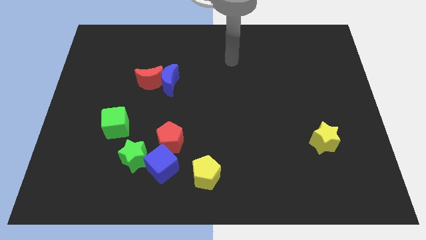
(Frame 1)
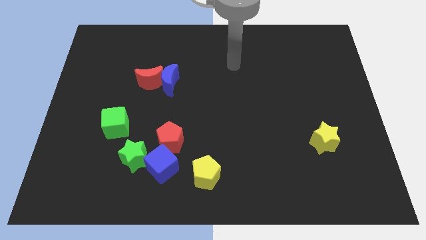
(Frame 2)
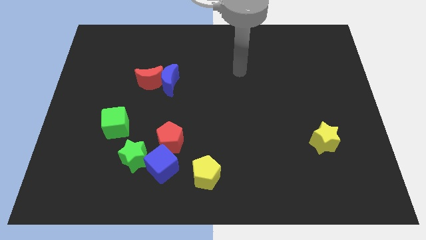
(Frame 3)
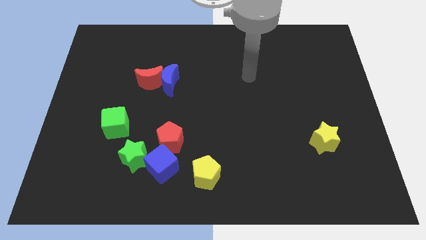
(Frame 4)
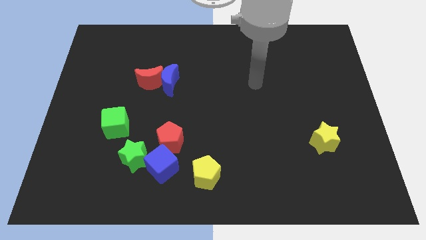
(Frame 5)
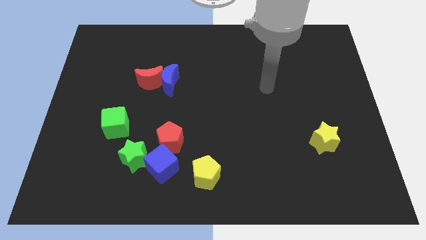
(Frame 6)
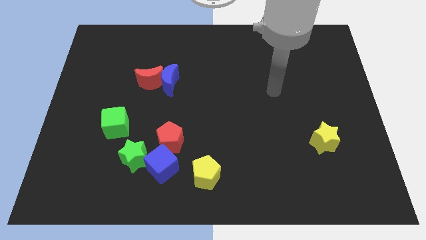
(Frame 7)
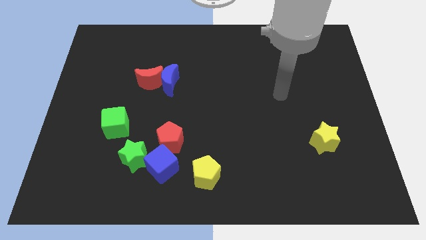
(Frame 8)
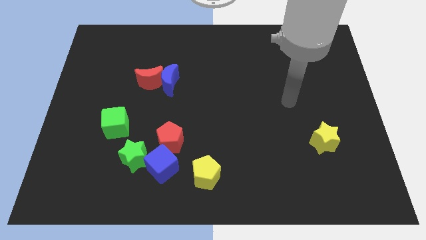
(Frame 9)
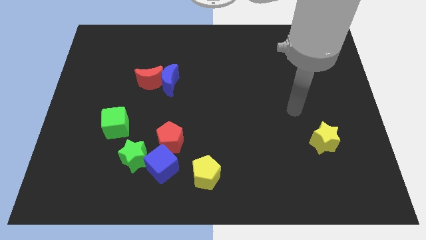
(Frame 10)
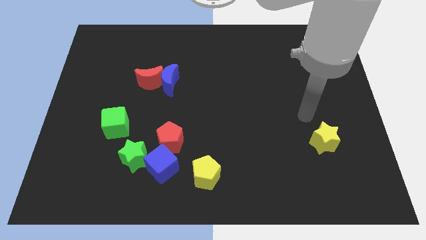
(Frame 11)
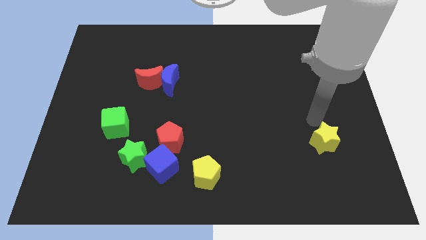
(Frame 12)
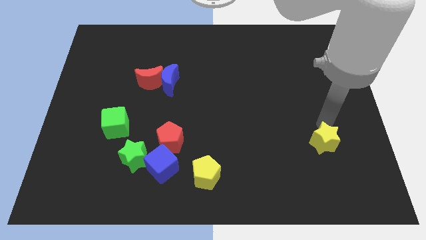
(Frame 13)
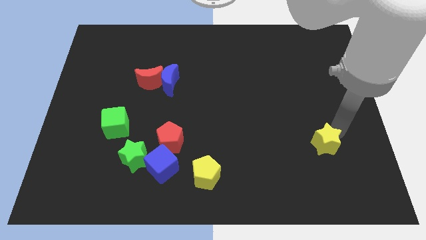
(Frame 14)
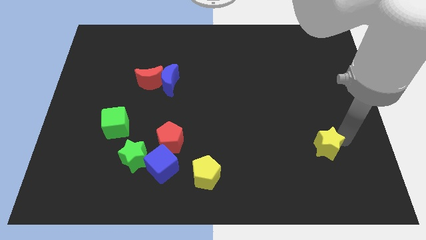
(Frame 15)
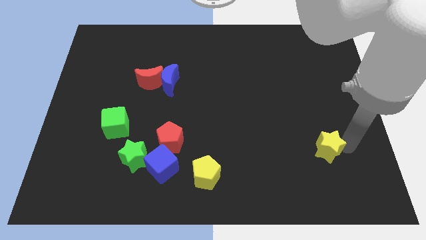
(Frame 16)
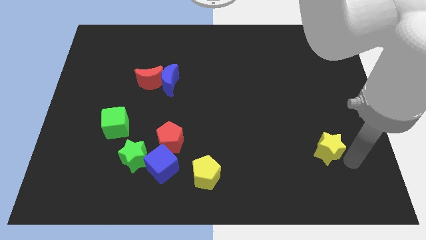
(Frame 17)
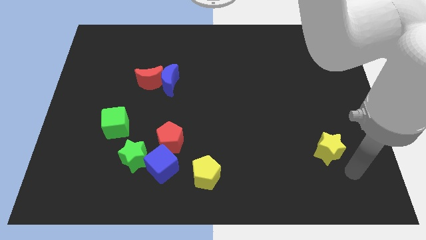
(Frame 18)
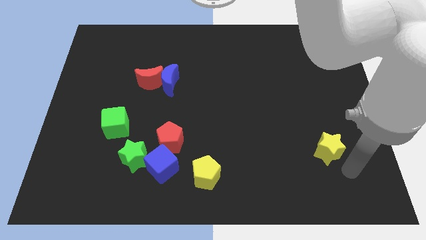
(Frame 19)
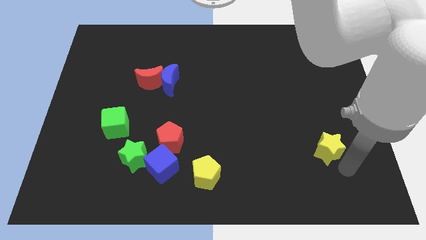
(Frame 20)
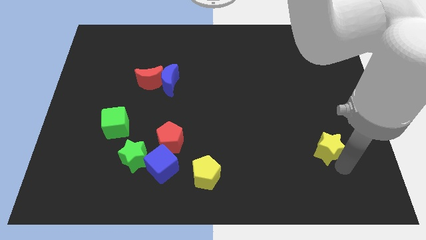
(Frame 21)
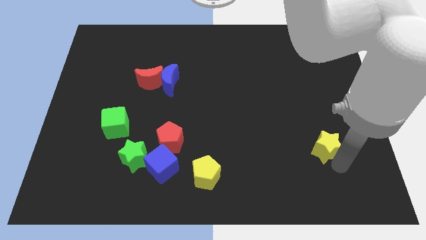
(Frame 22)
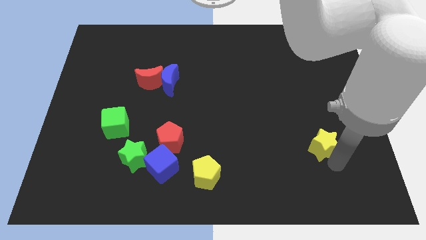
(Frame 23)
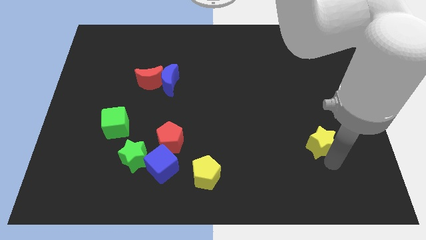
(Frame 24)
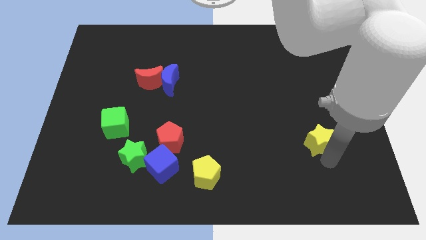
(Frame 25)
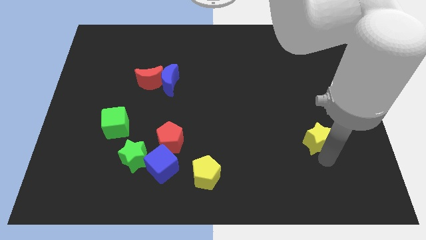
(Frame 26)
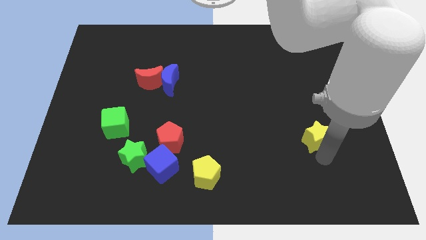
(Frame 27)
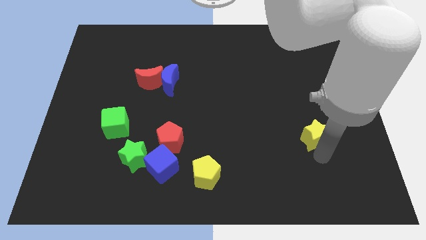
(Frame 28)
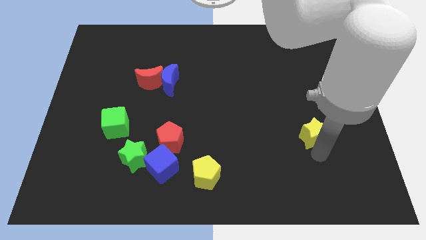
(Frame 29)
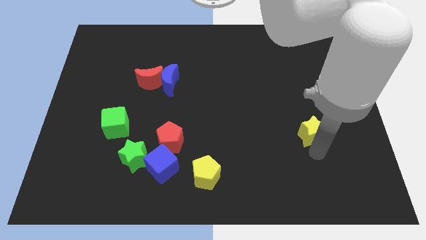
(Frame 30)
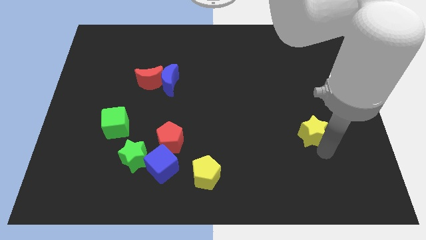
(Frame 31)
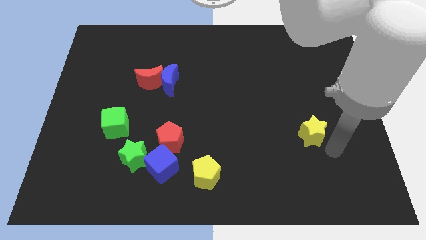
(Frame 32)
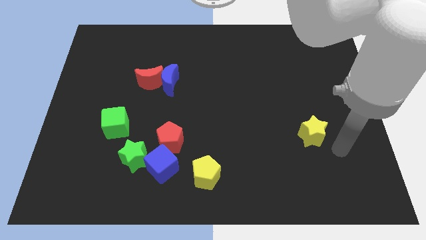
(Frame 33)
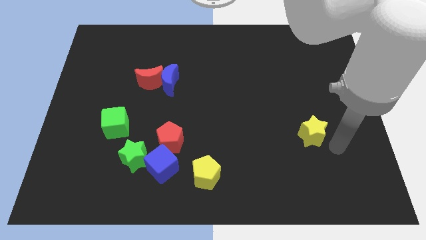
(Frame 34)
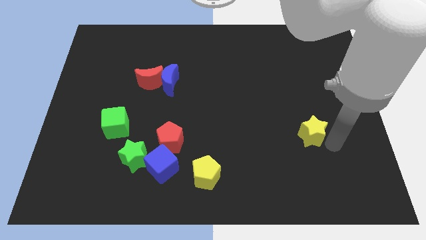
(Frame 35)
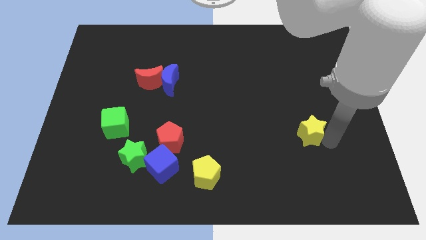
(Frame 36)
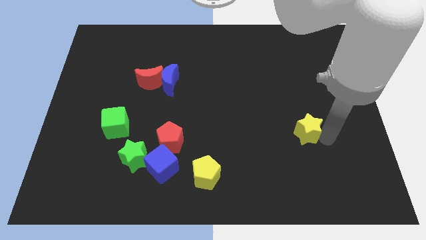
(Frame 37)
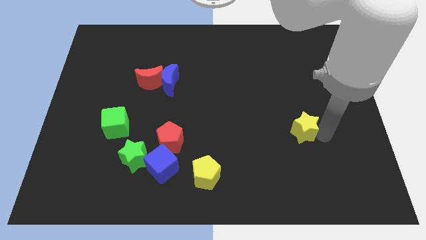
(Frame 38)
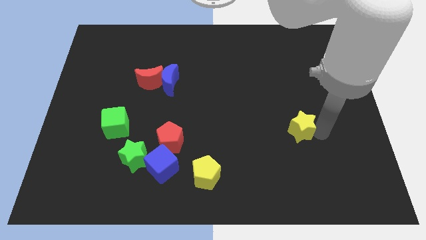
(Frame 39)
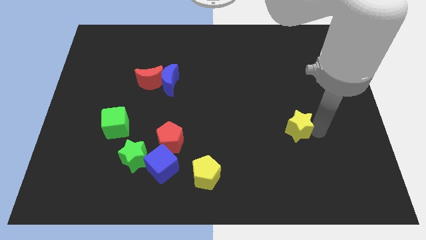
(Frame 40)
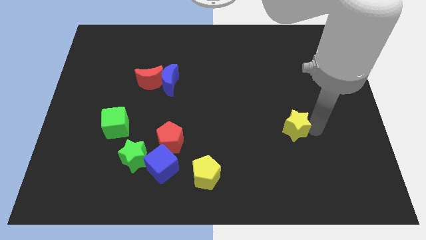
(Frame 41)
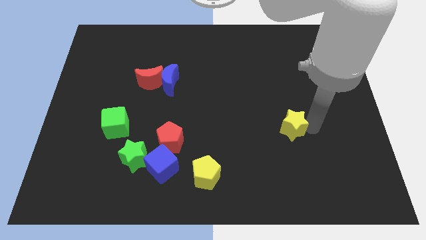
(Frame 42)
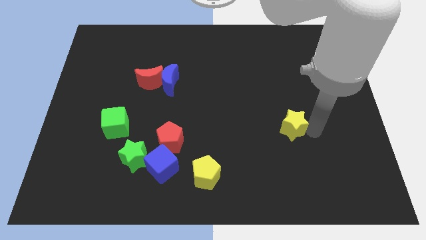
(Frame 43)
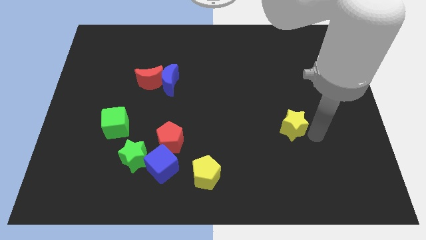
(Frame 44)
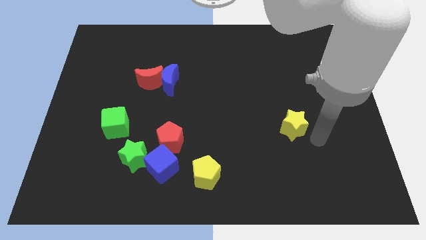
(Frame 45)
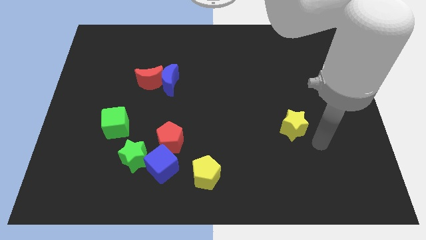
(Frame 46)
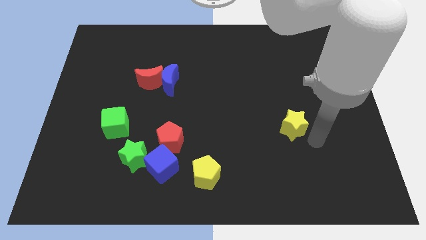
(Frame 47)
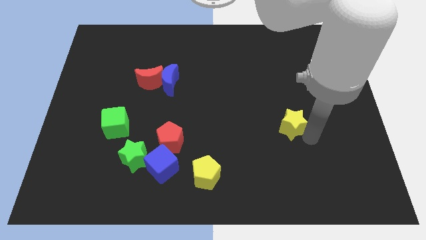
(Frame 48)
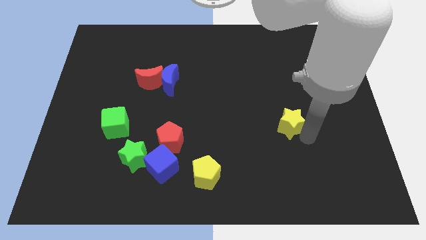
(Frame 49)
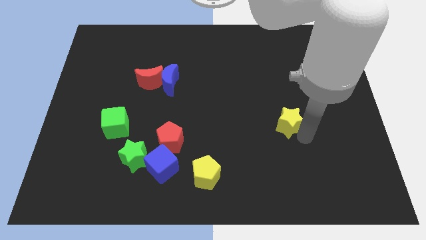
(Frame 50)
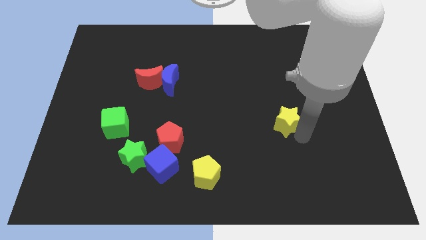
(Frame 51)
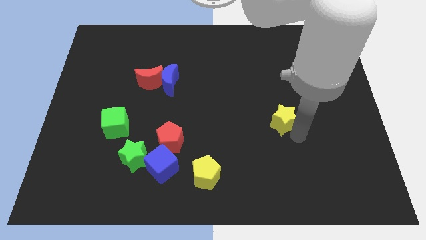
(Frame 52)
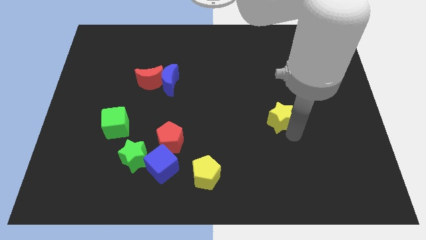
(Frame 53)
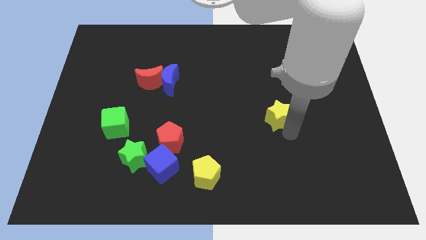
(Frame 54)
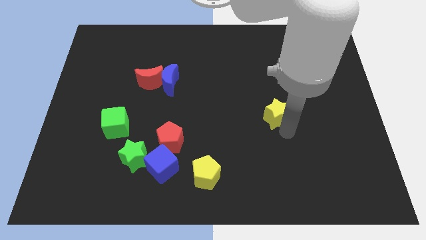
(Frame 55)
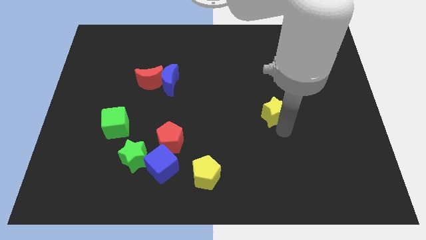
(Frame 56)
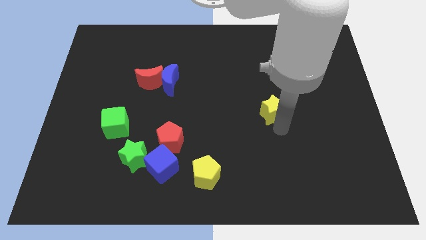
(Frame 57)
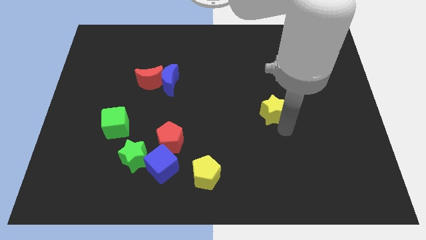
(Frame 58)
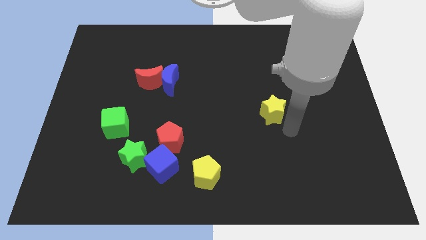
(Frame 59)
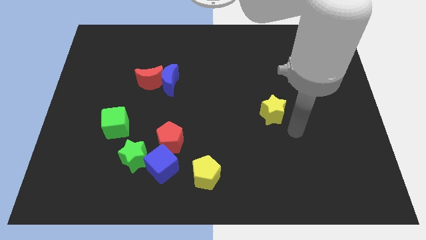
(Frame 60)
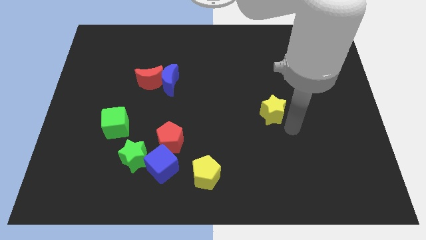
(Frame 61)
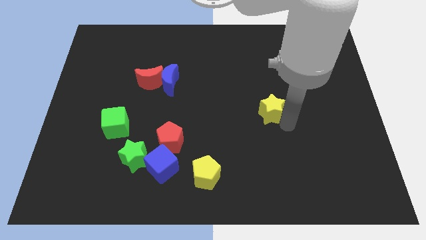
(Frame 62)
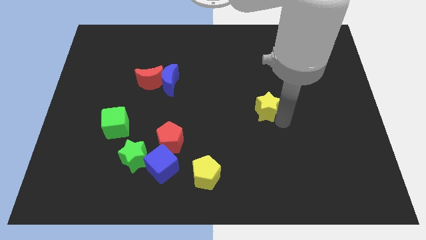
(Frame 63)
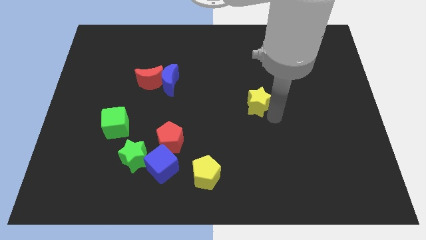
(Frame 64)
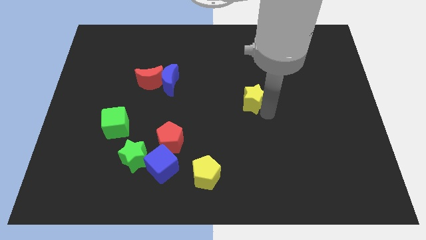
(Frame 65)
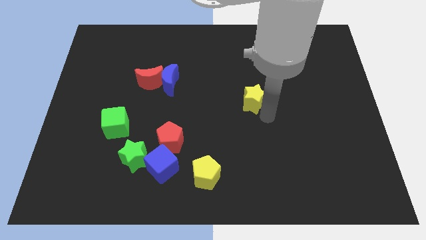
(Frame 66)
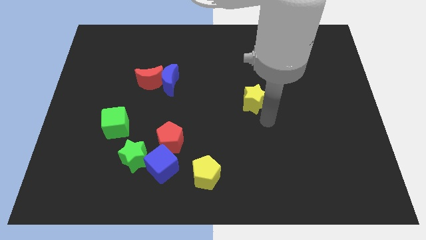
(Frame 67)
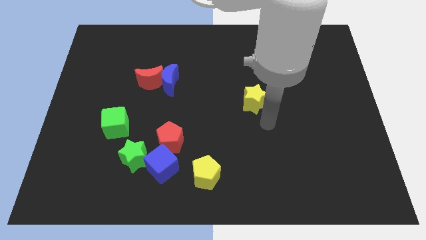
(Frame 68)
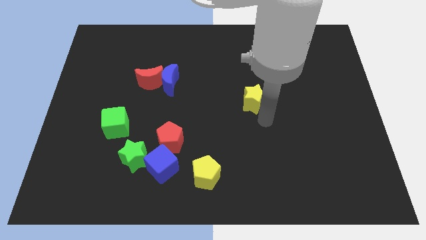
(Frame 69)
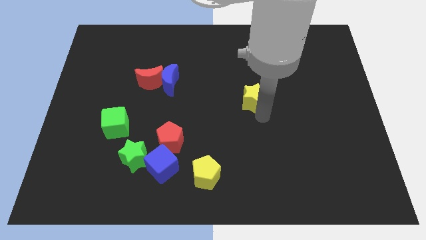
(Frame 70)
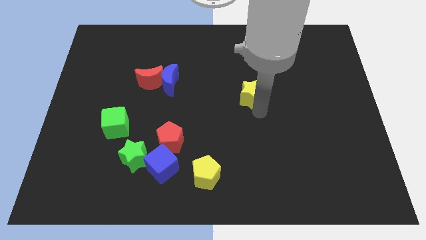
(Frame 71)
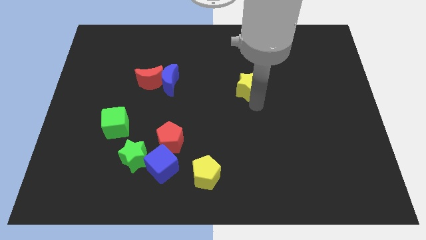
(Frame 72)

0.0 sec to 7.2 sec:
slide the yellow star up and left

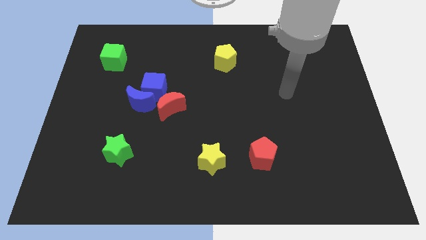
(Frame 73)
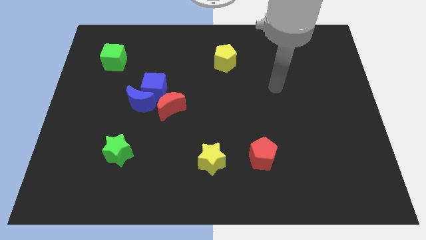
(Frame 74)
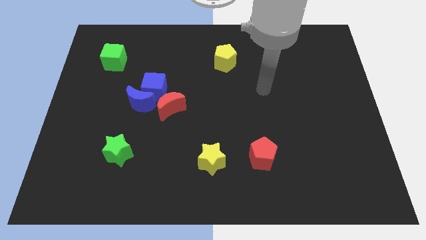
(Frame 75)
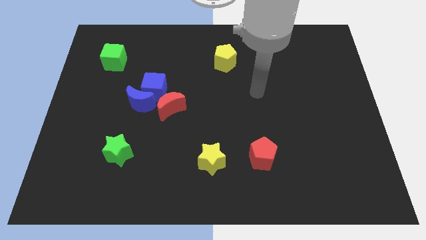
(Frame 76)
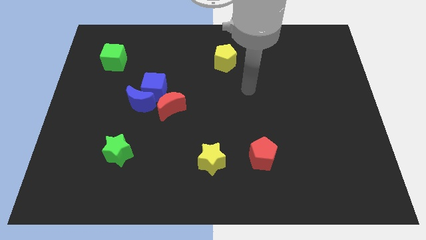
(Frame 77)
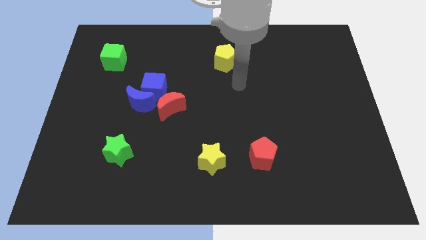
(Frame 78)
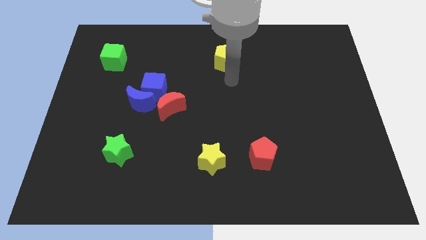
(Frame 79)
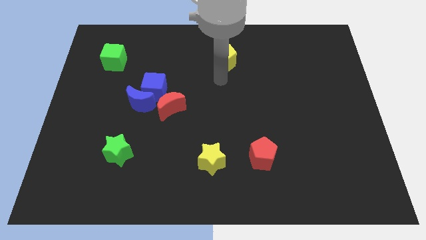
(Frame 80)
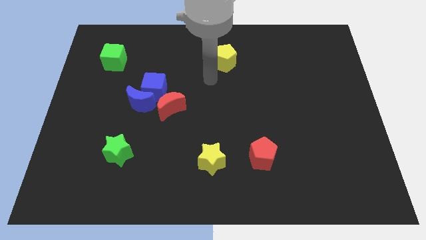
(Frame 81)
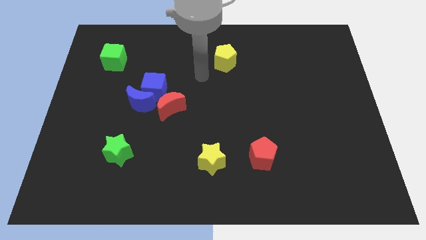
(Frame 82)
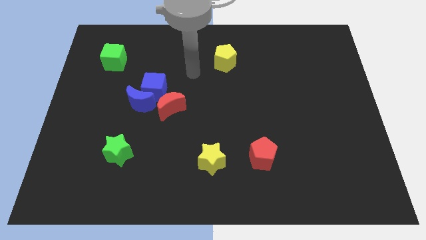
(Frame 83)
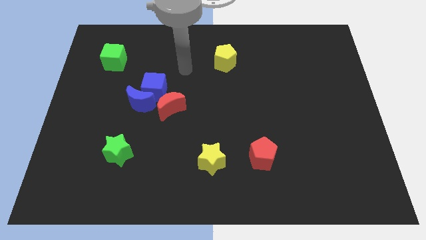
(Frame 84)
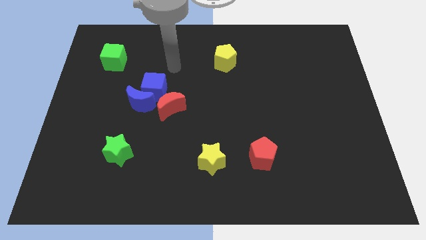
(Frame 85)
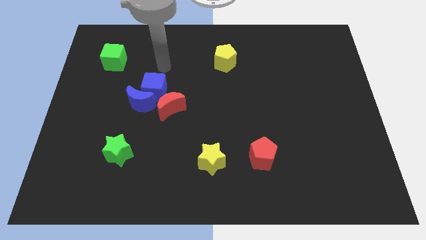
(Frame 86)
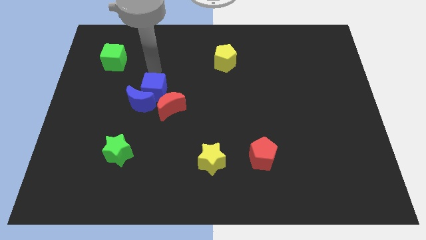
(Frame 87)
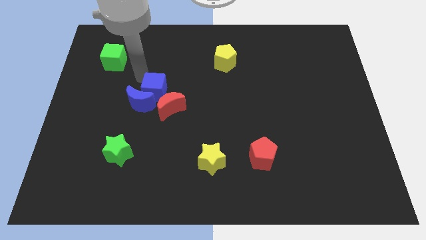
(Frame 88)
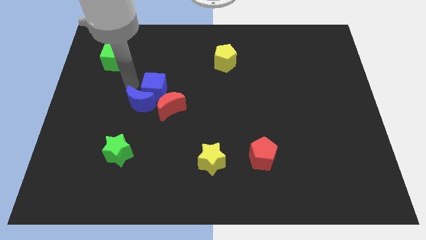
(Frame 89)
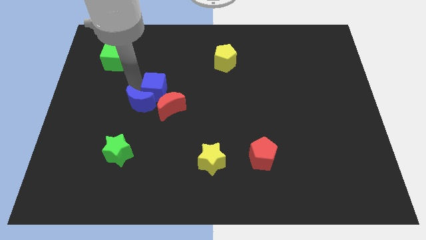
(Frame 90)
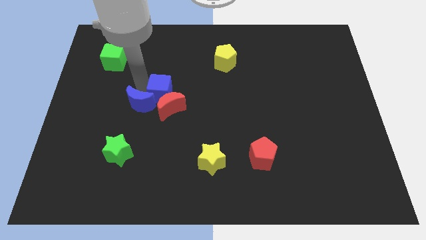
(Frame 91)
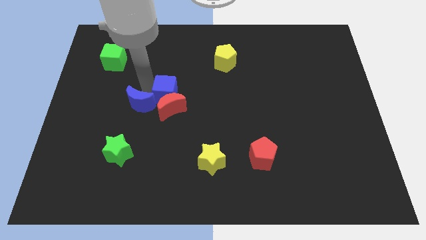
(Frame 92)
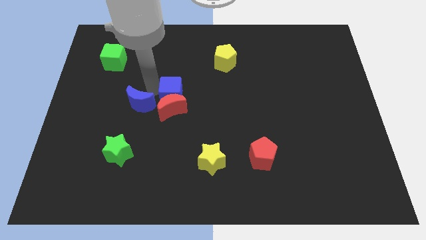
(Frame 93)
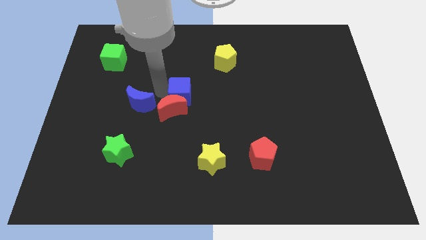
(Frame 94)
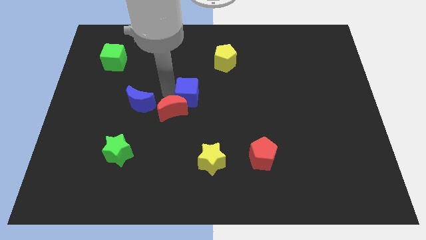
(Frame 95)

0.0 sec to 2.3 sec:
slightly push the blue cube right
